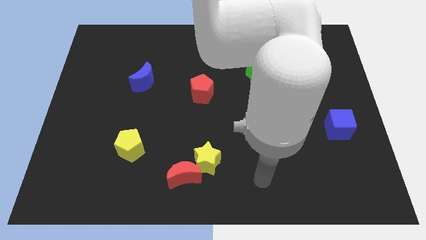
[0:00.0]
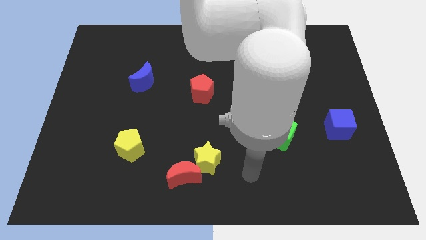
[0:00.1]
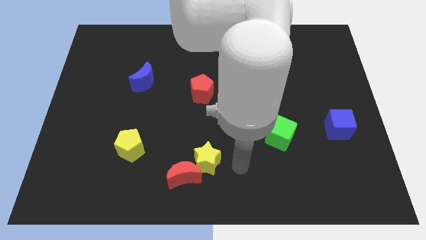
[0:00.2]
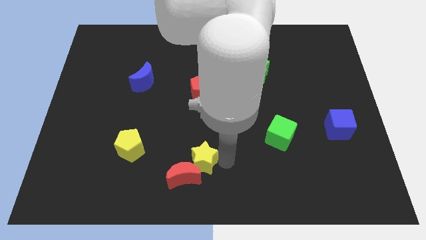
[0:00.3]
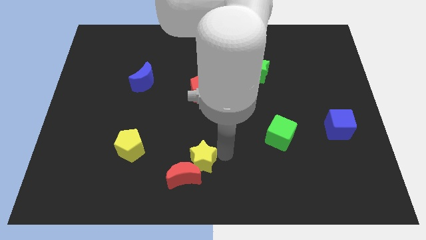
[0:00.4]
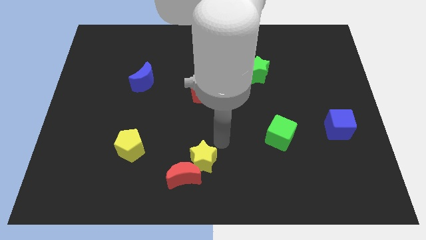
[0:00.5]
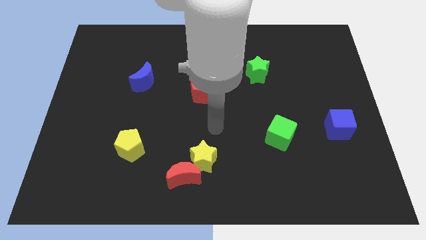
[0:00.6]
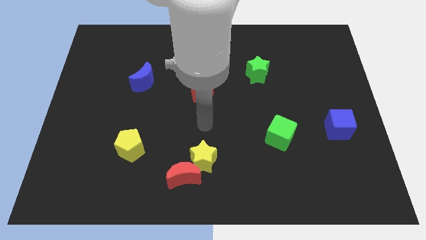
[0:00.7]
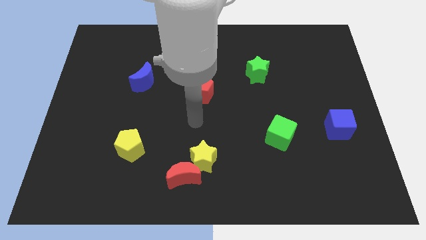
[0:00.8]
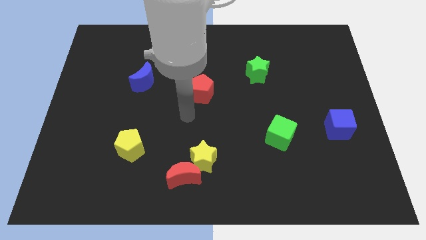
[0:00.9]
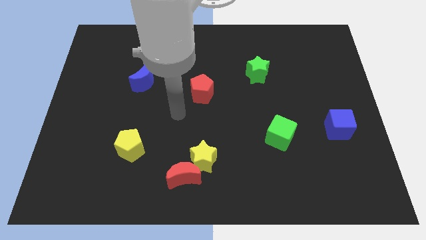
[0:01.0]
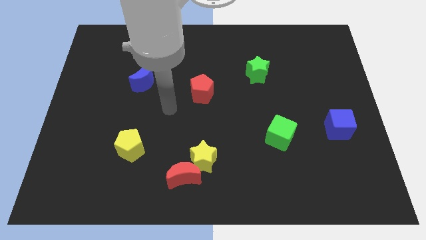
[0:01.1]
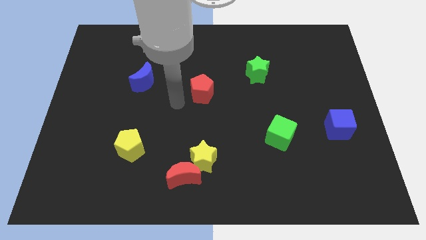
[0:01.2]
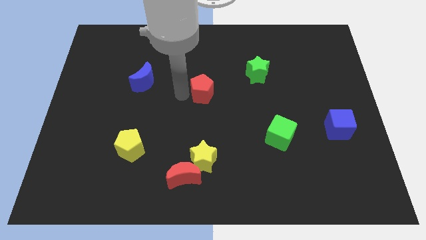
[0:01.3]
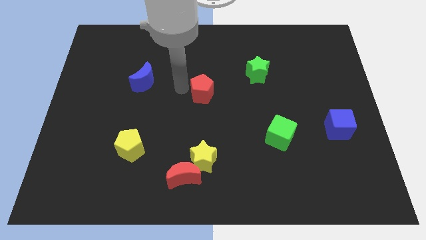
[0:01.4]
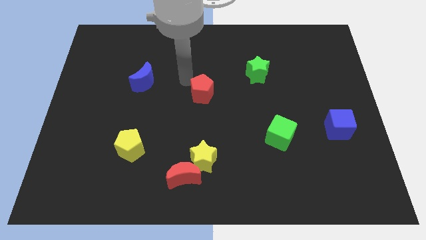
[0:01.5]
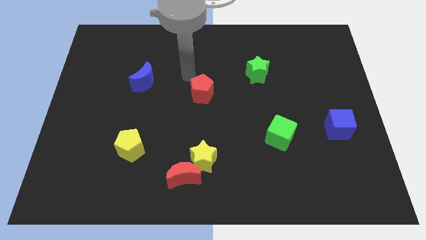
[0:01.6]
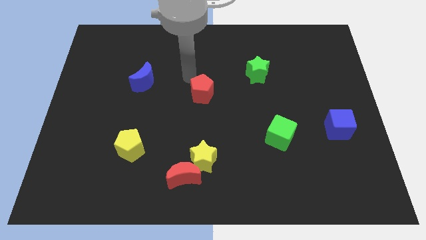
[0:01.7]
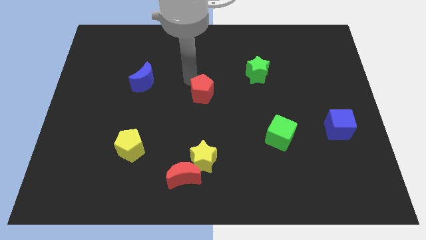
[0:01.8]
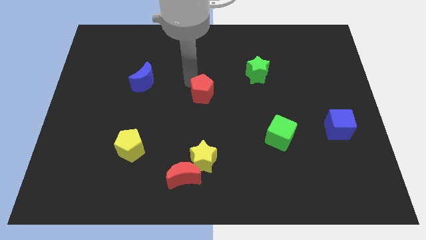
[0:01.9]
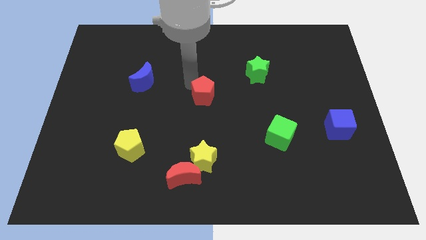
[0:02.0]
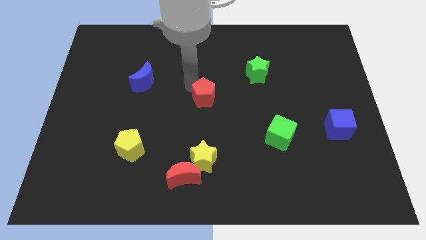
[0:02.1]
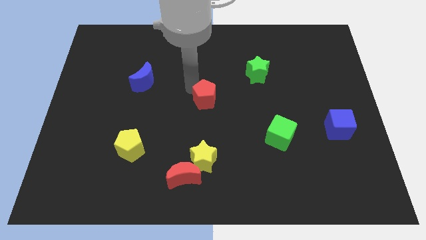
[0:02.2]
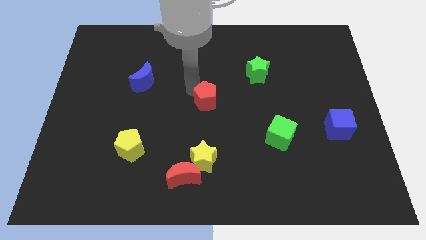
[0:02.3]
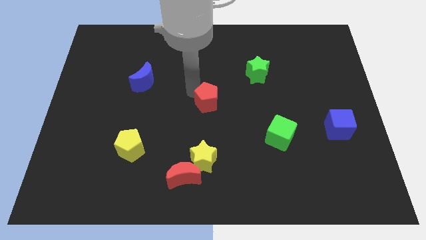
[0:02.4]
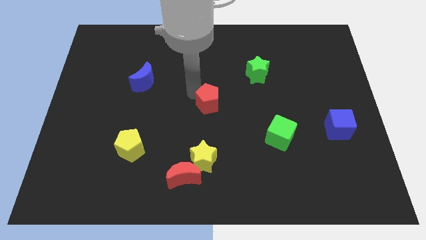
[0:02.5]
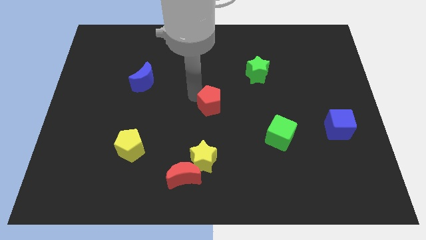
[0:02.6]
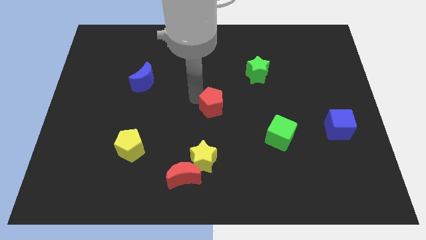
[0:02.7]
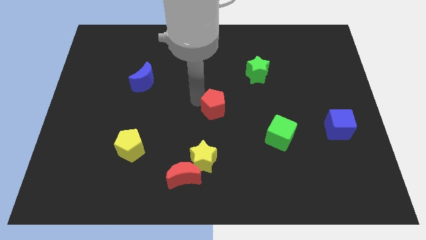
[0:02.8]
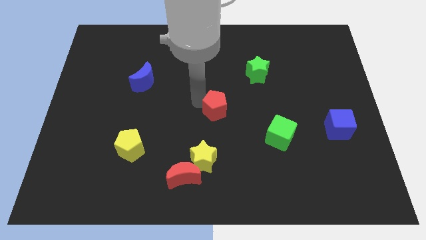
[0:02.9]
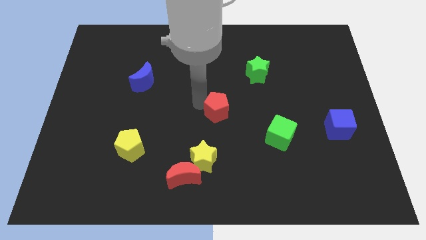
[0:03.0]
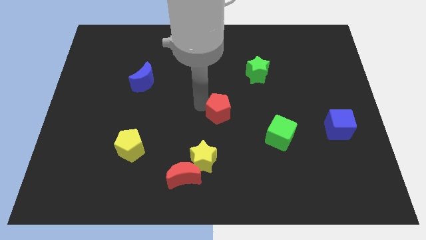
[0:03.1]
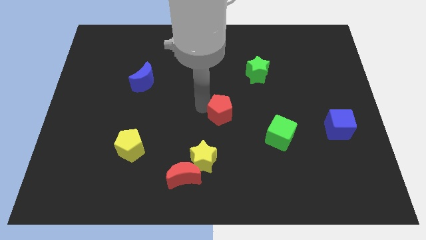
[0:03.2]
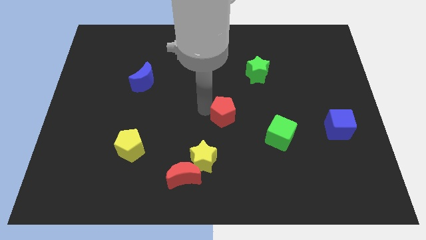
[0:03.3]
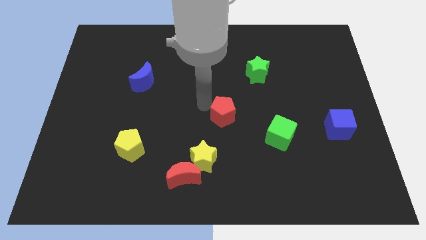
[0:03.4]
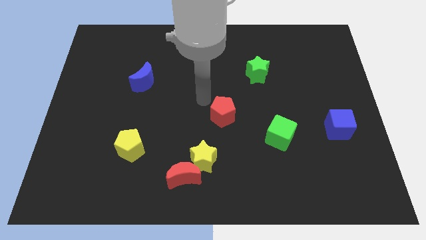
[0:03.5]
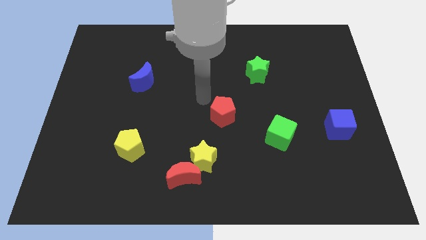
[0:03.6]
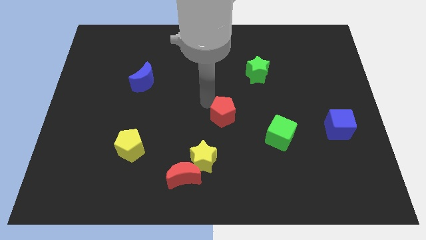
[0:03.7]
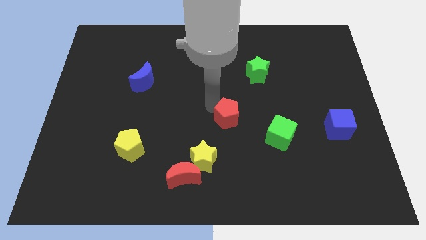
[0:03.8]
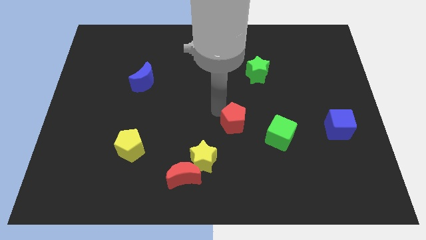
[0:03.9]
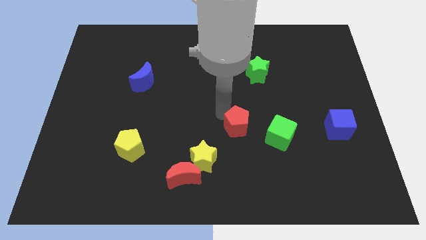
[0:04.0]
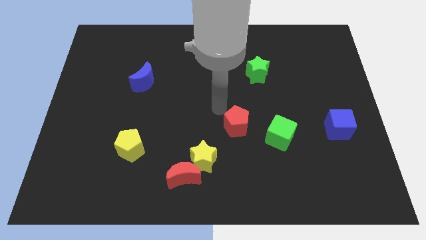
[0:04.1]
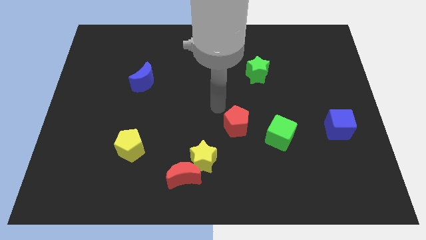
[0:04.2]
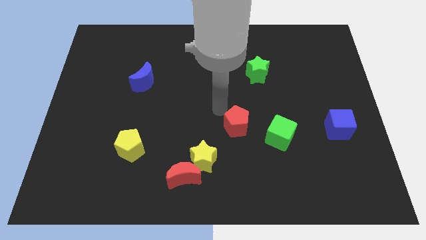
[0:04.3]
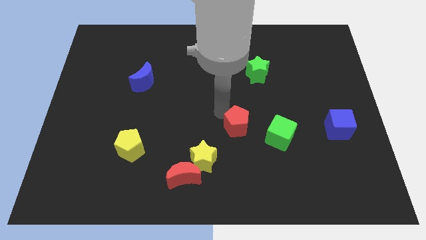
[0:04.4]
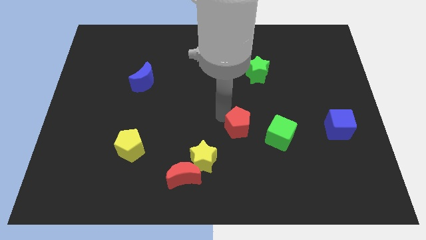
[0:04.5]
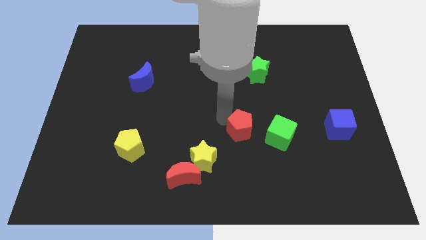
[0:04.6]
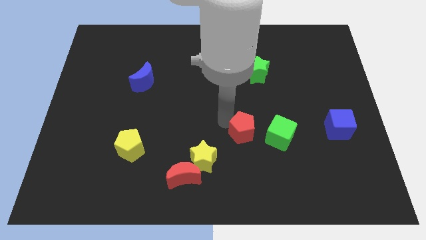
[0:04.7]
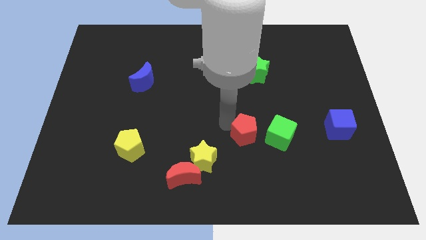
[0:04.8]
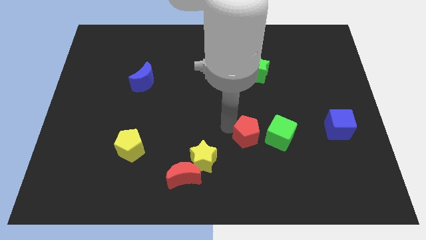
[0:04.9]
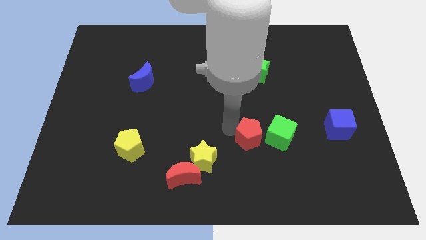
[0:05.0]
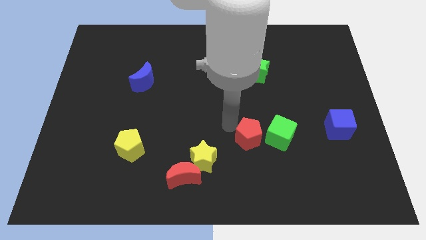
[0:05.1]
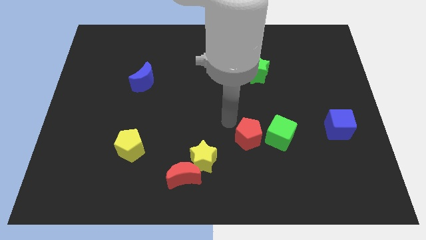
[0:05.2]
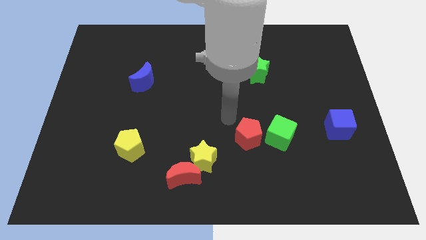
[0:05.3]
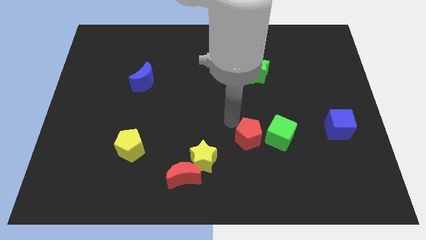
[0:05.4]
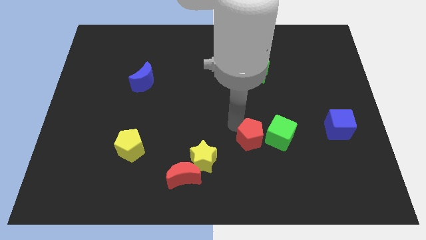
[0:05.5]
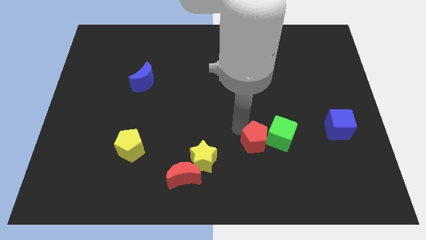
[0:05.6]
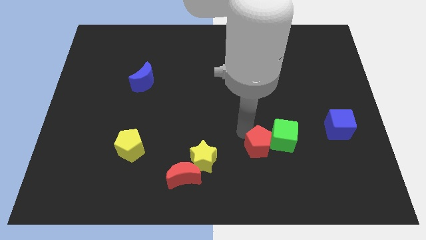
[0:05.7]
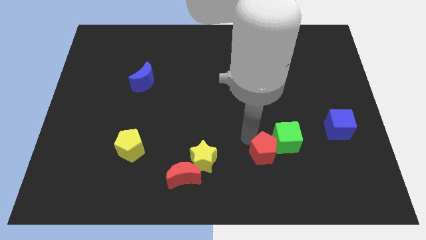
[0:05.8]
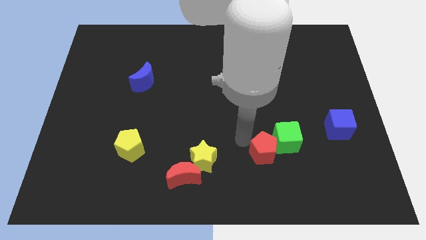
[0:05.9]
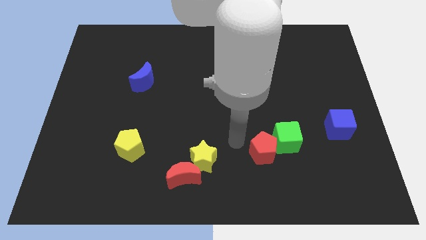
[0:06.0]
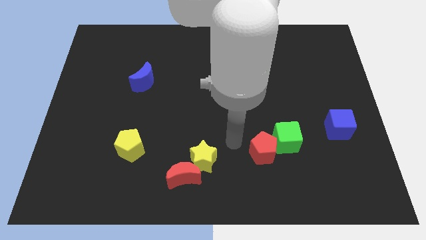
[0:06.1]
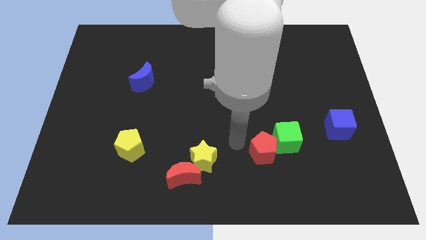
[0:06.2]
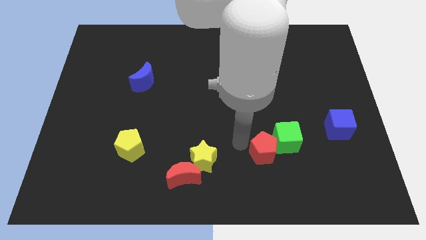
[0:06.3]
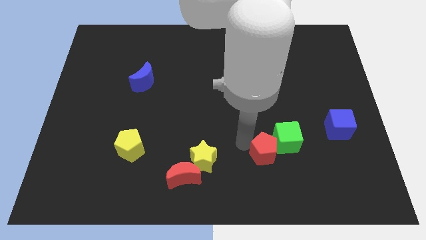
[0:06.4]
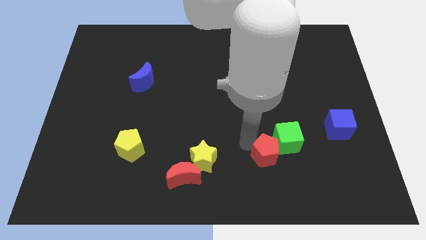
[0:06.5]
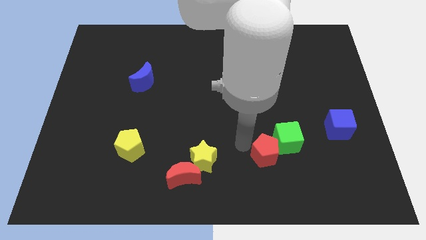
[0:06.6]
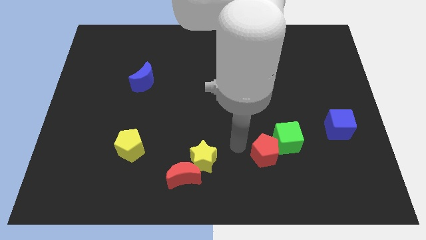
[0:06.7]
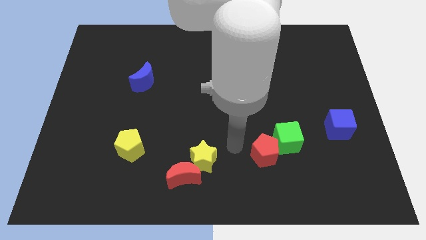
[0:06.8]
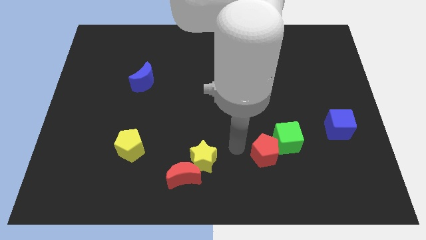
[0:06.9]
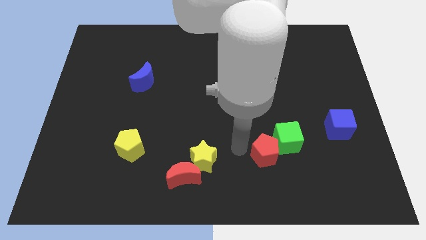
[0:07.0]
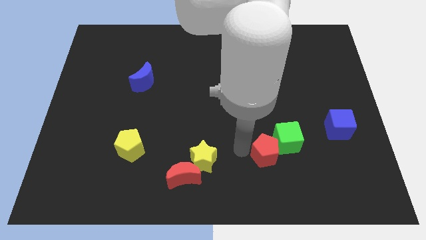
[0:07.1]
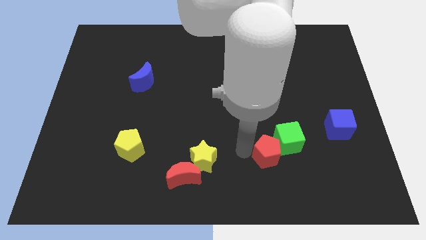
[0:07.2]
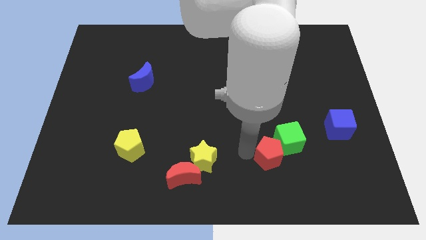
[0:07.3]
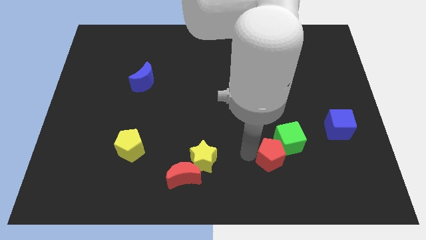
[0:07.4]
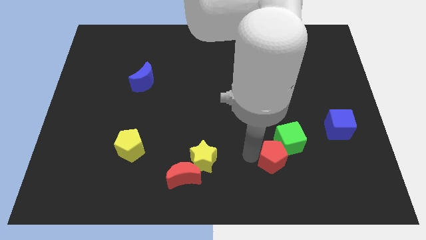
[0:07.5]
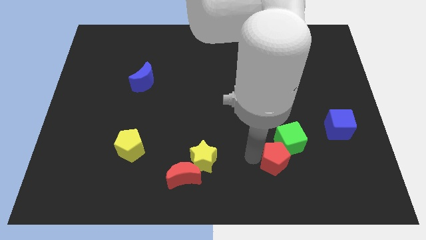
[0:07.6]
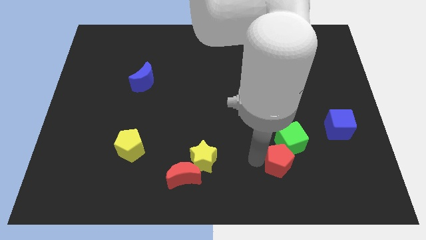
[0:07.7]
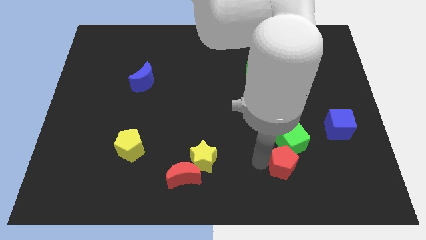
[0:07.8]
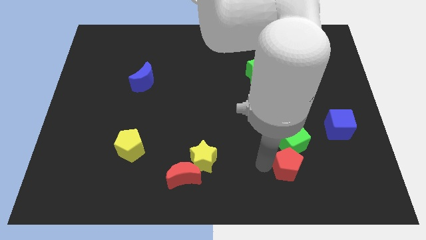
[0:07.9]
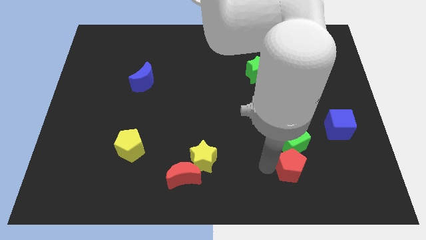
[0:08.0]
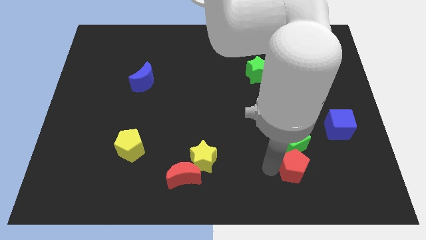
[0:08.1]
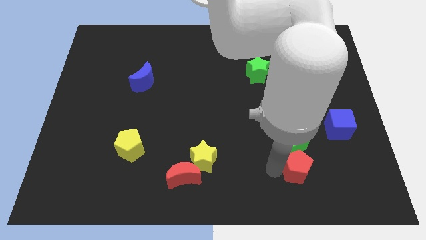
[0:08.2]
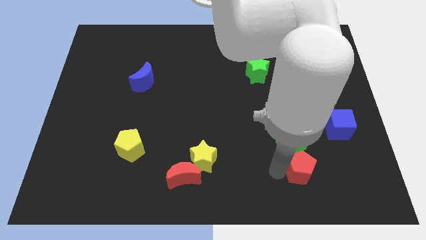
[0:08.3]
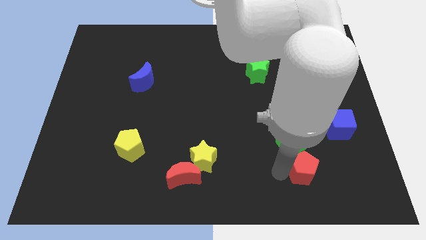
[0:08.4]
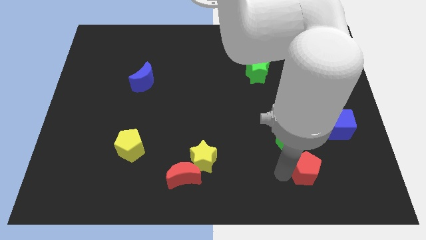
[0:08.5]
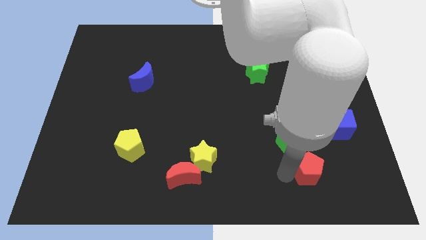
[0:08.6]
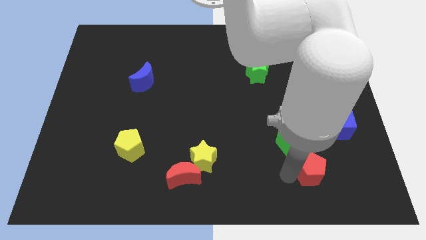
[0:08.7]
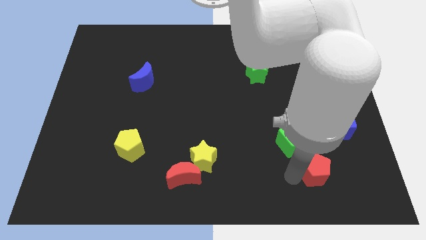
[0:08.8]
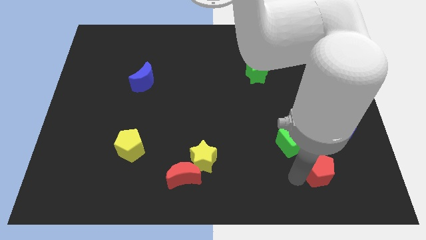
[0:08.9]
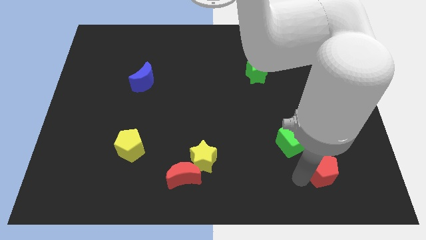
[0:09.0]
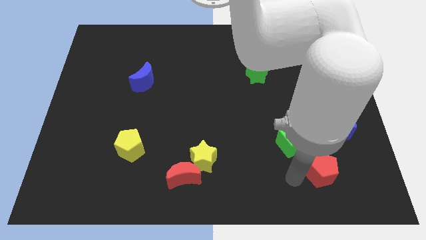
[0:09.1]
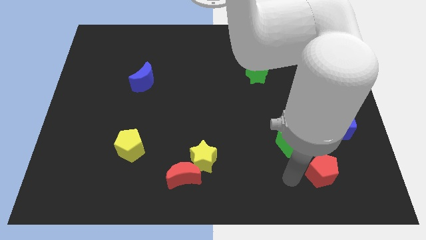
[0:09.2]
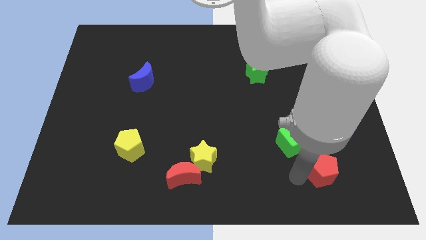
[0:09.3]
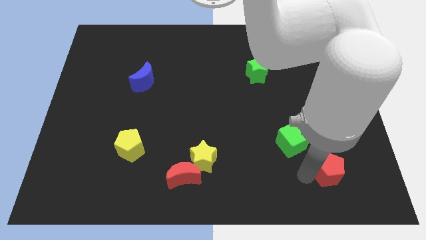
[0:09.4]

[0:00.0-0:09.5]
put the red pentagon below the blue cube
